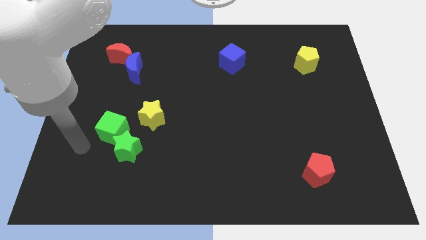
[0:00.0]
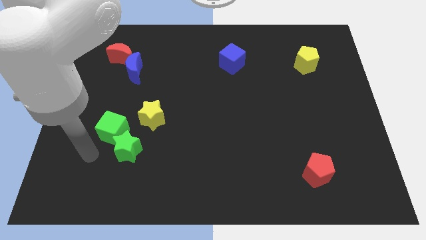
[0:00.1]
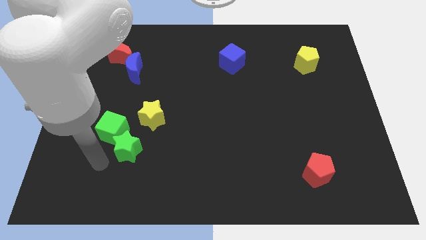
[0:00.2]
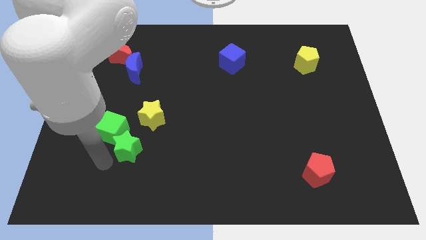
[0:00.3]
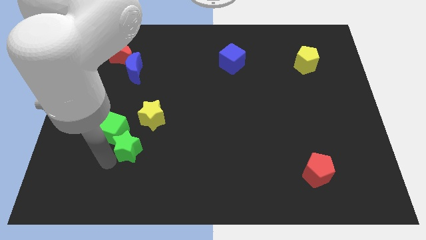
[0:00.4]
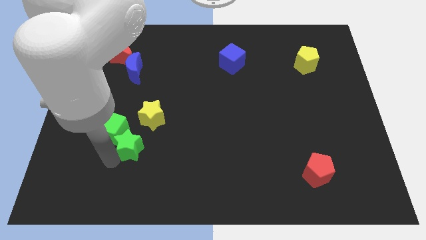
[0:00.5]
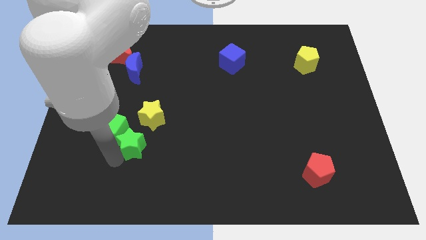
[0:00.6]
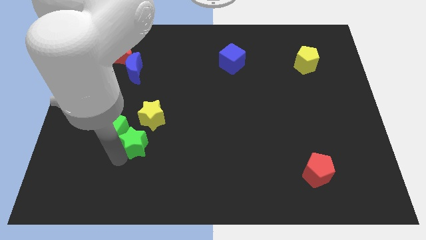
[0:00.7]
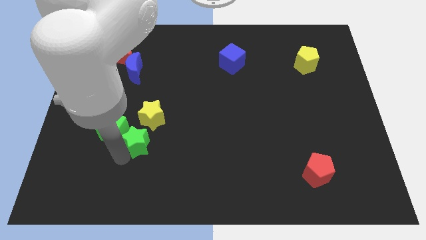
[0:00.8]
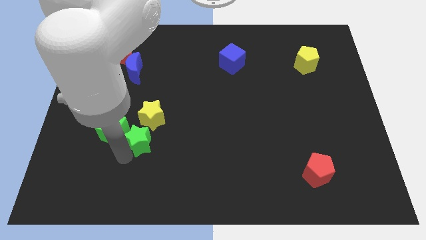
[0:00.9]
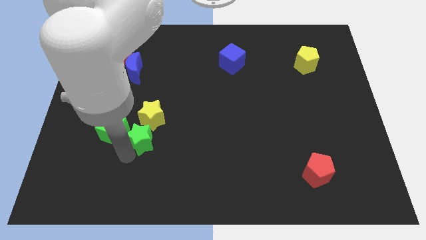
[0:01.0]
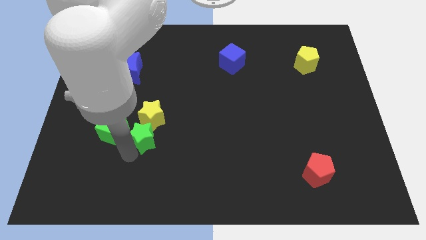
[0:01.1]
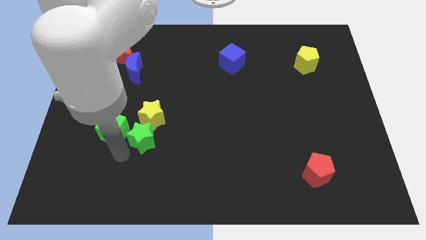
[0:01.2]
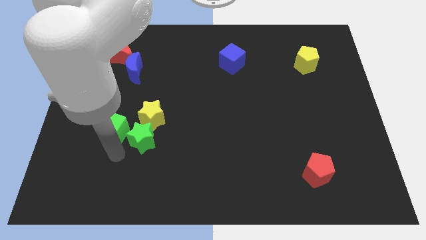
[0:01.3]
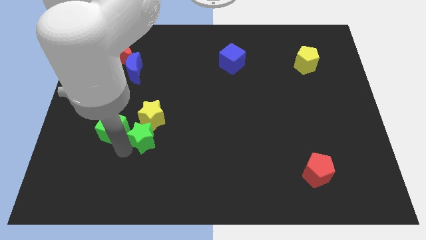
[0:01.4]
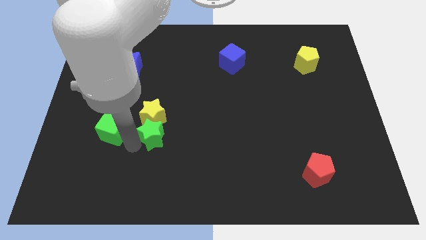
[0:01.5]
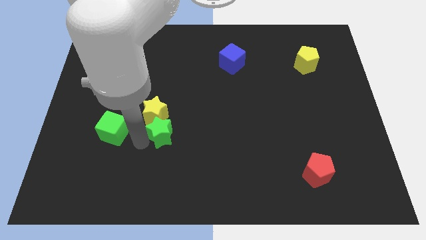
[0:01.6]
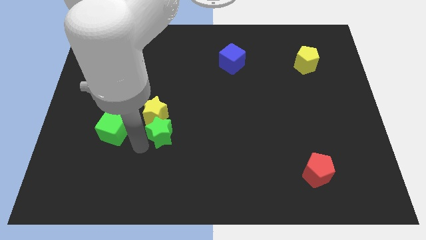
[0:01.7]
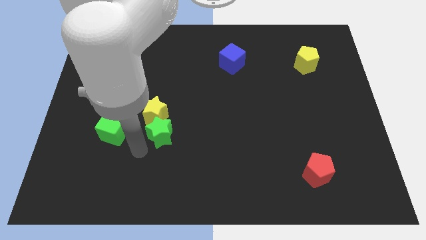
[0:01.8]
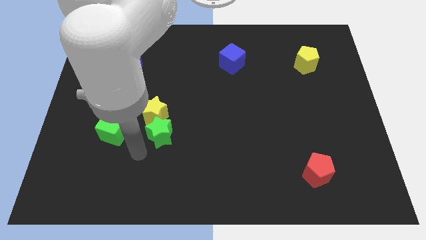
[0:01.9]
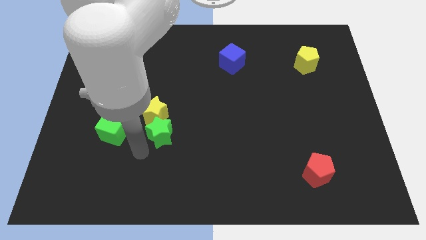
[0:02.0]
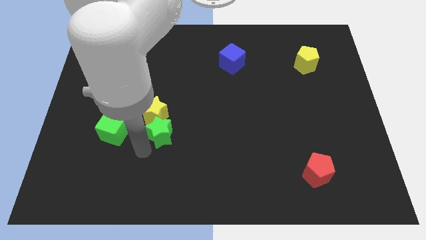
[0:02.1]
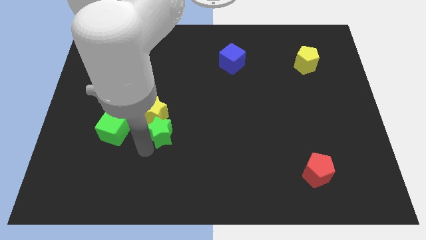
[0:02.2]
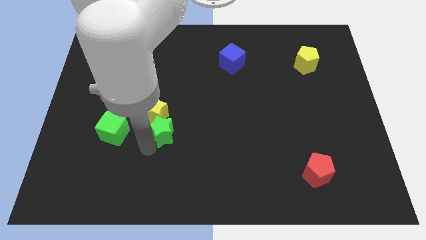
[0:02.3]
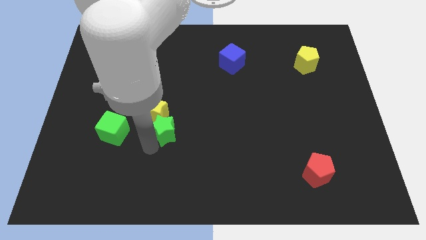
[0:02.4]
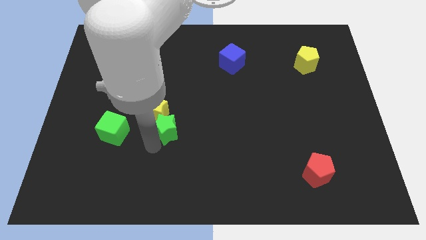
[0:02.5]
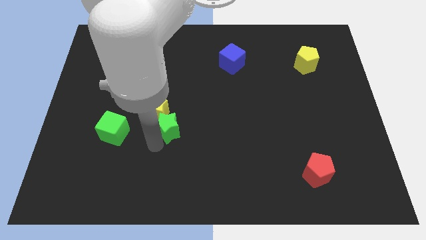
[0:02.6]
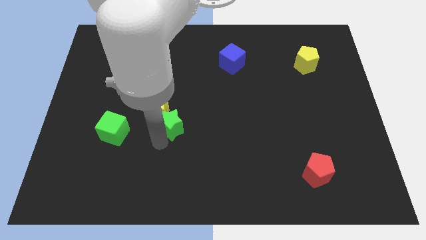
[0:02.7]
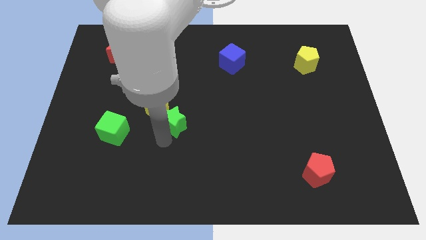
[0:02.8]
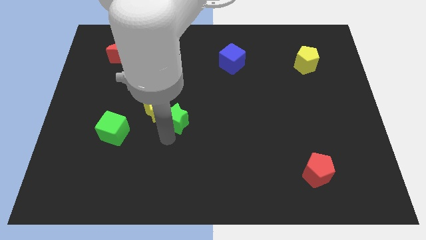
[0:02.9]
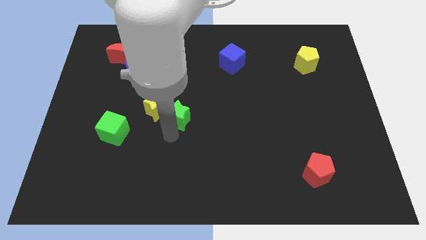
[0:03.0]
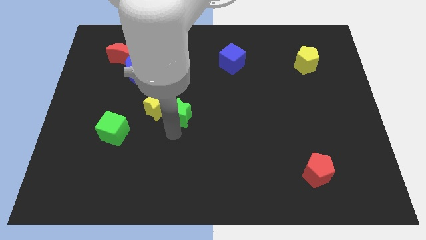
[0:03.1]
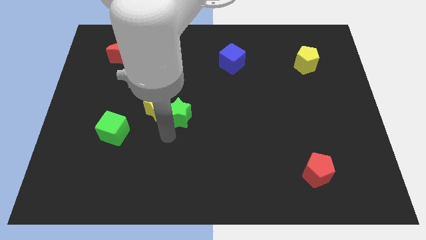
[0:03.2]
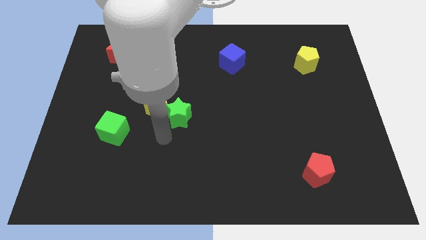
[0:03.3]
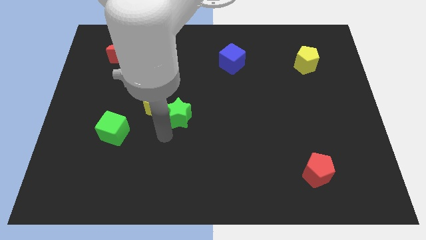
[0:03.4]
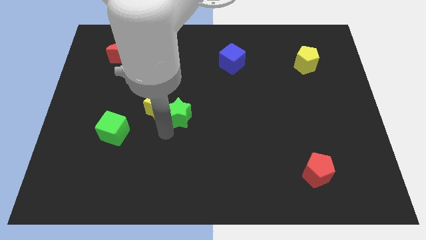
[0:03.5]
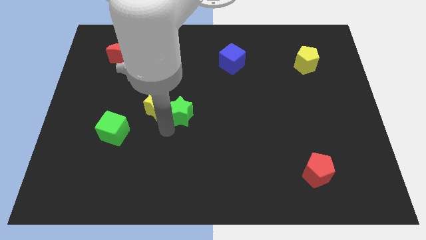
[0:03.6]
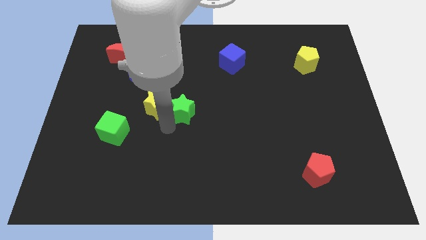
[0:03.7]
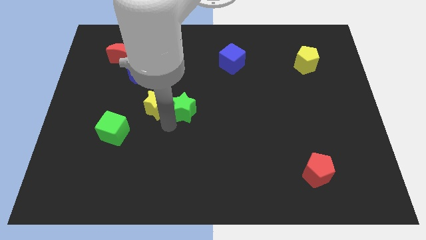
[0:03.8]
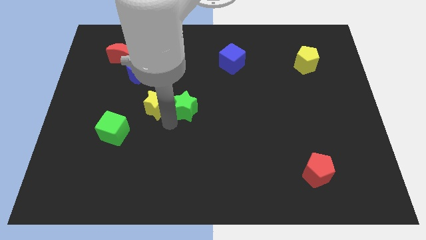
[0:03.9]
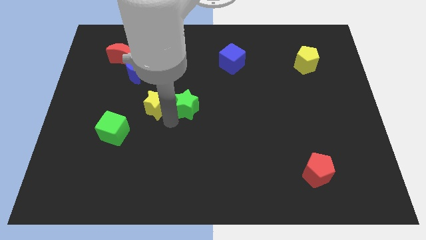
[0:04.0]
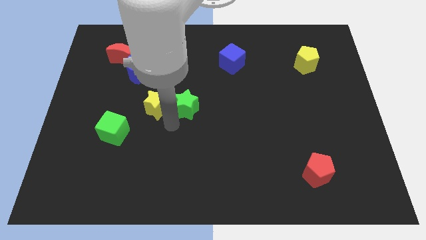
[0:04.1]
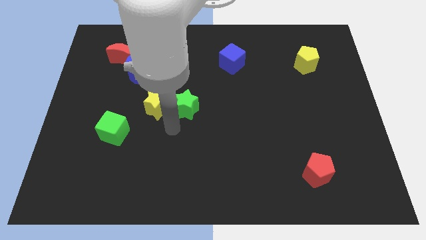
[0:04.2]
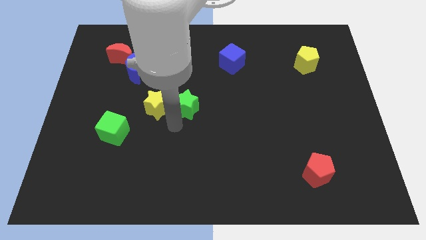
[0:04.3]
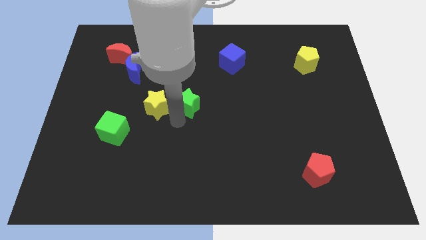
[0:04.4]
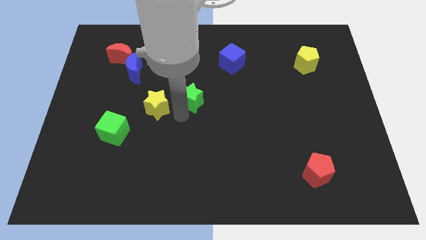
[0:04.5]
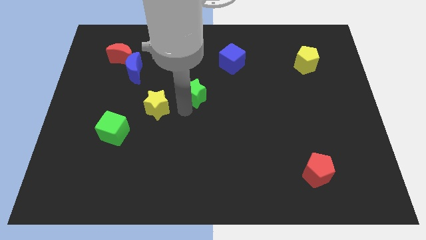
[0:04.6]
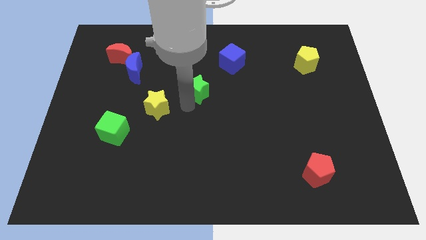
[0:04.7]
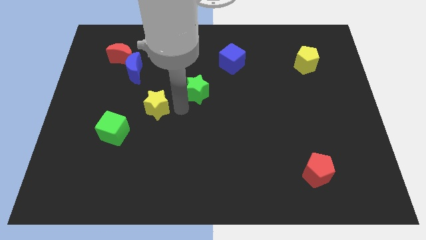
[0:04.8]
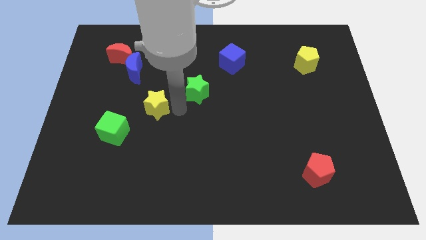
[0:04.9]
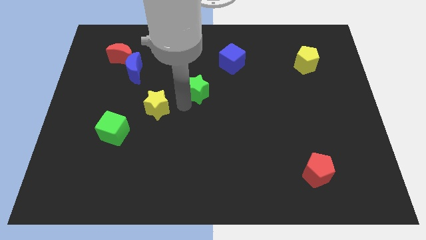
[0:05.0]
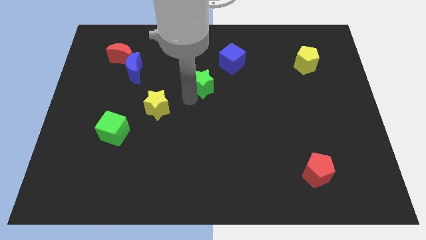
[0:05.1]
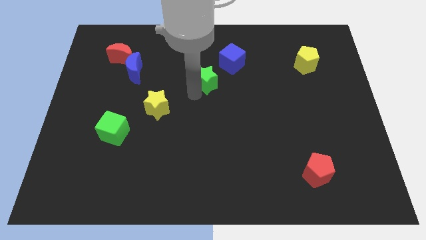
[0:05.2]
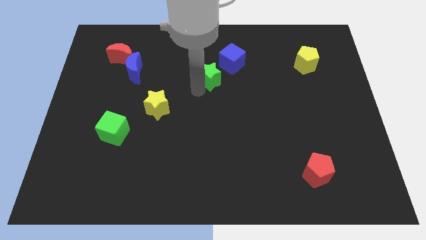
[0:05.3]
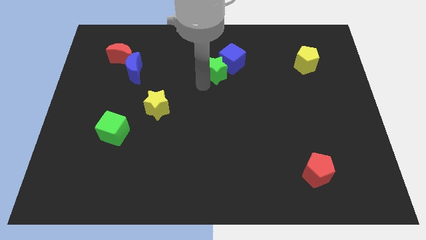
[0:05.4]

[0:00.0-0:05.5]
push the green star next to the blue cube

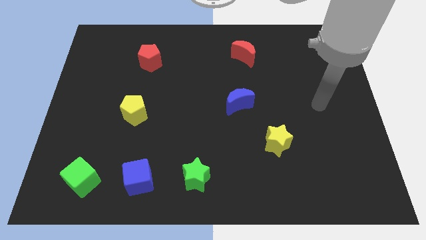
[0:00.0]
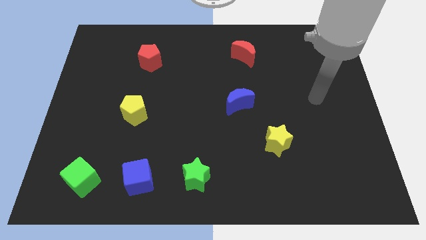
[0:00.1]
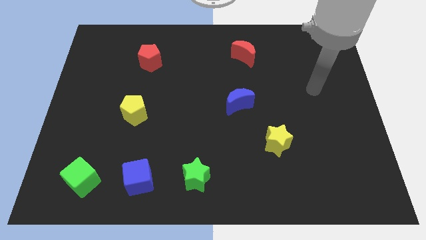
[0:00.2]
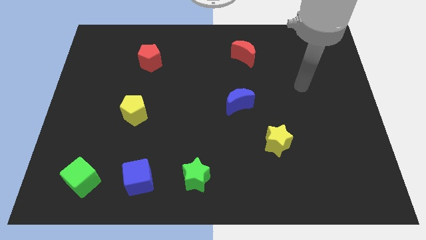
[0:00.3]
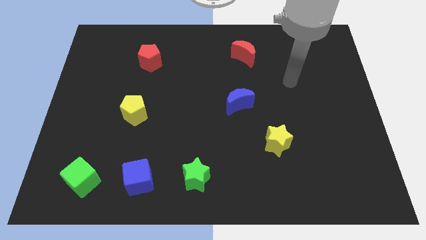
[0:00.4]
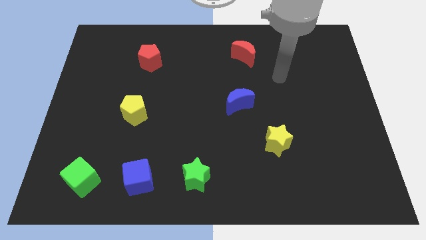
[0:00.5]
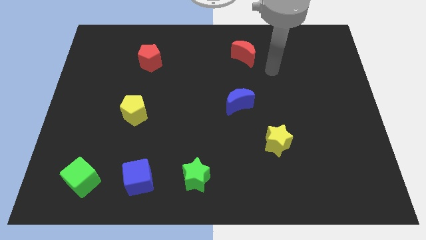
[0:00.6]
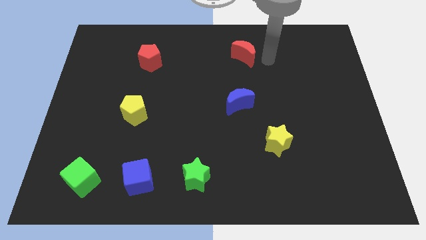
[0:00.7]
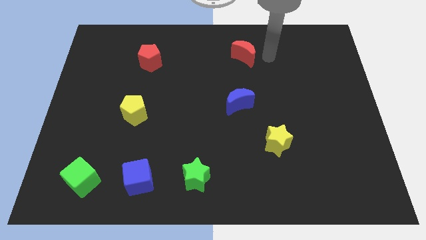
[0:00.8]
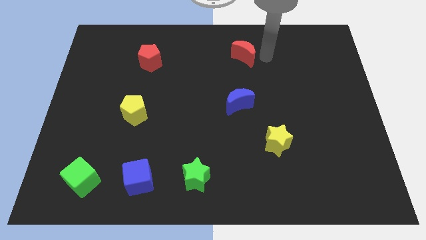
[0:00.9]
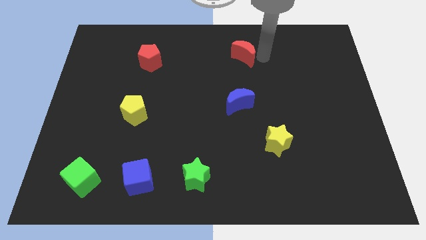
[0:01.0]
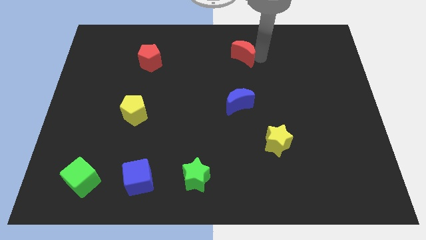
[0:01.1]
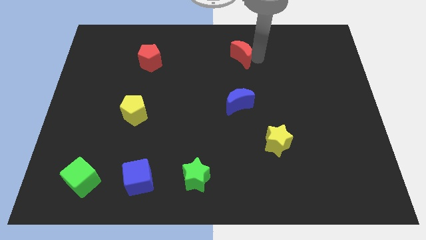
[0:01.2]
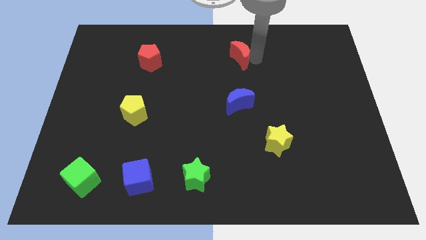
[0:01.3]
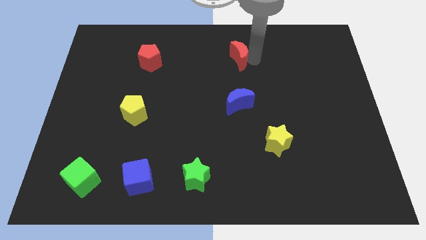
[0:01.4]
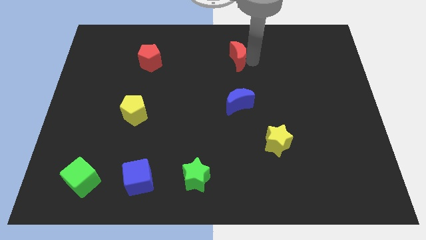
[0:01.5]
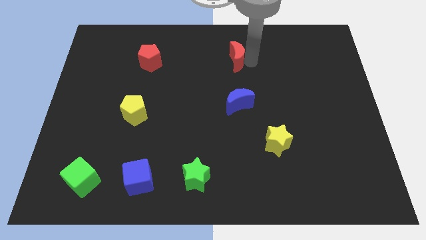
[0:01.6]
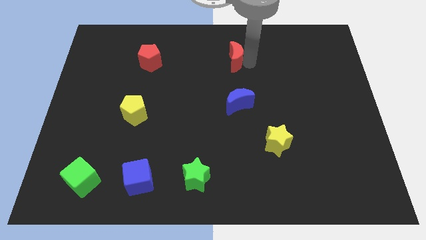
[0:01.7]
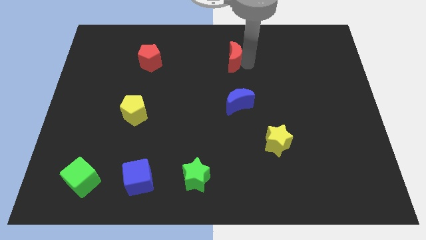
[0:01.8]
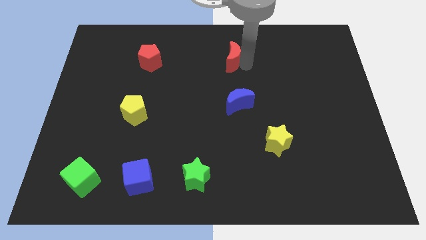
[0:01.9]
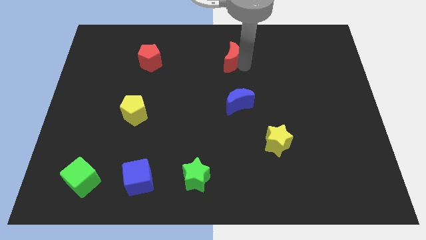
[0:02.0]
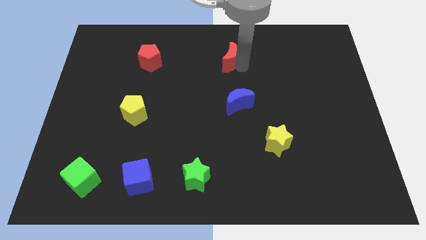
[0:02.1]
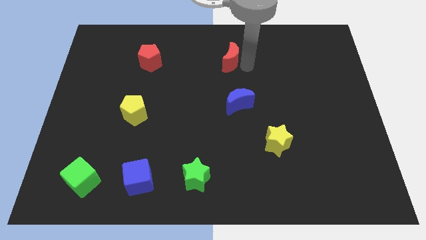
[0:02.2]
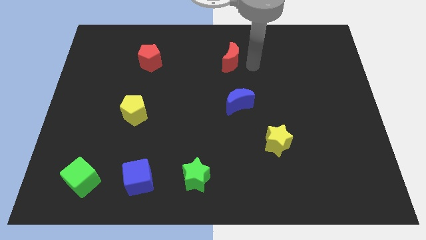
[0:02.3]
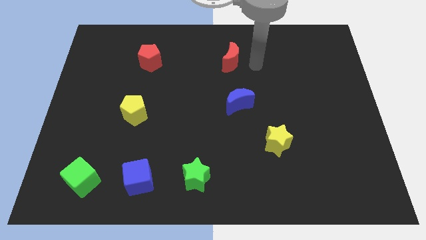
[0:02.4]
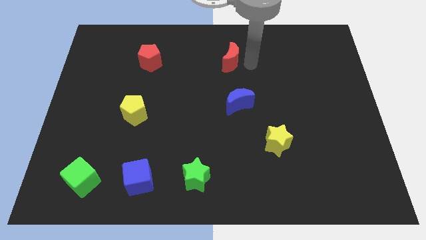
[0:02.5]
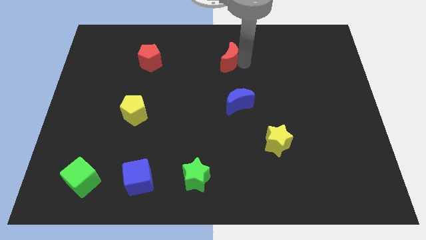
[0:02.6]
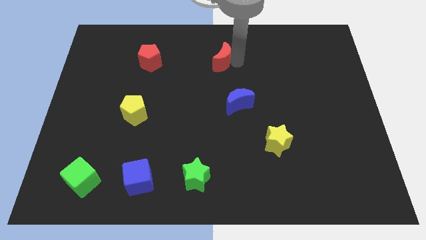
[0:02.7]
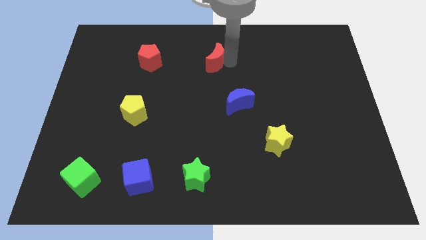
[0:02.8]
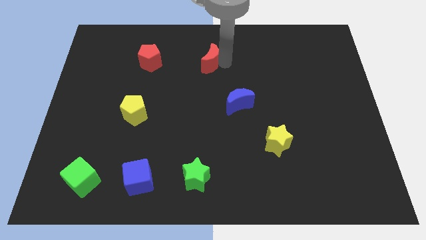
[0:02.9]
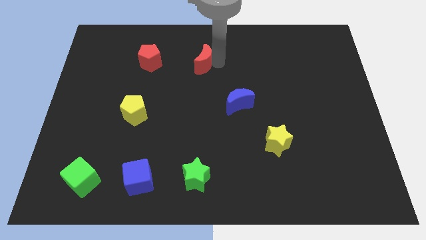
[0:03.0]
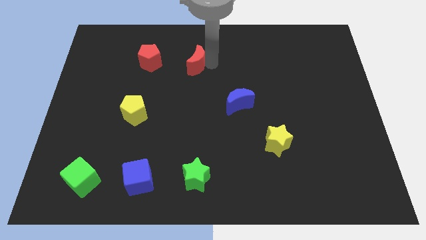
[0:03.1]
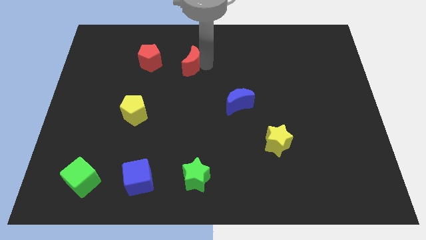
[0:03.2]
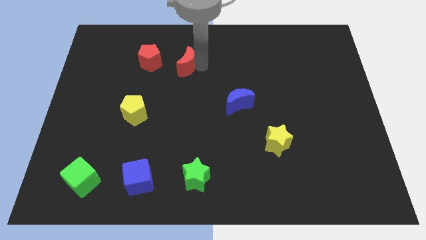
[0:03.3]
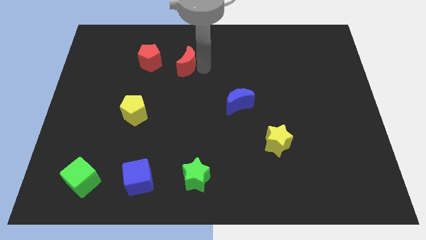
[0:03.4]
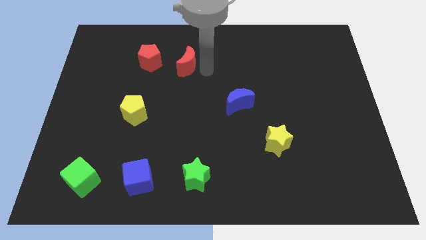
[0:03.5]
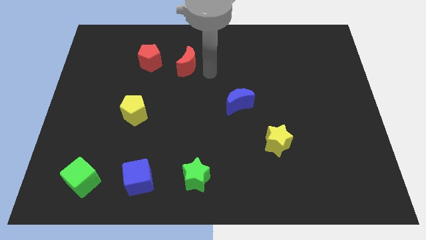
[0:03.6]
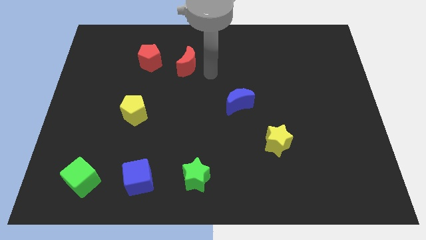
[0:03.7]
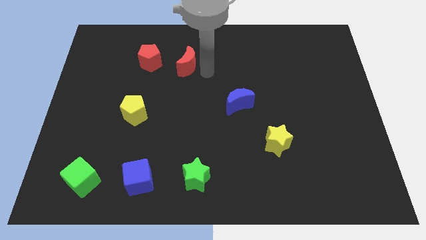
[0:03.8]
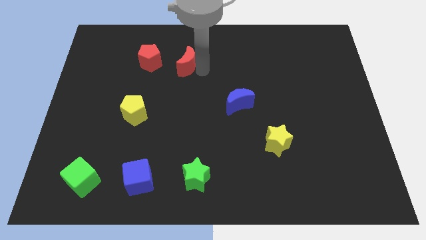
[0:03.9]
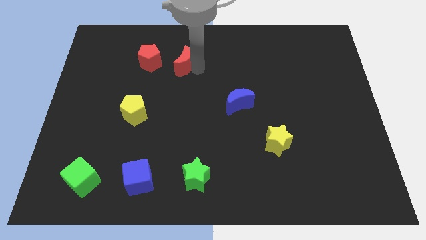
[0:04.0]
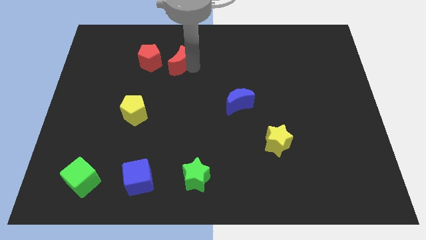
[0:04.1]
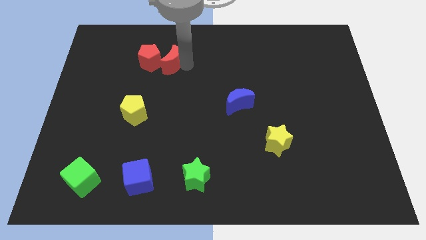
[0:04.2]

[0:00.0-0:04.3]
push the red moon to the red pentagon
